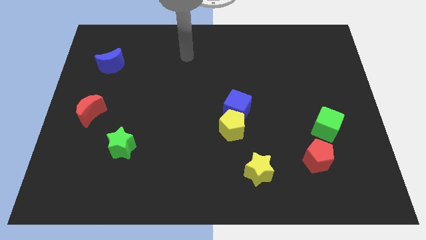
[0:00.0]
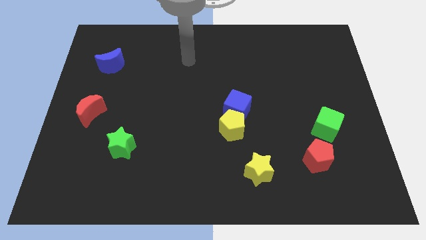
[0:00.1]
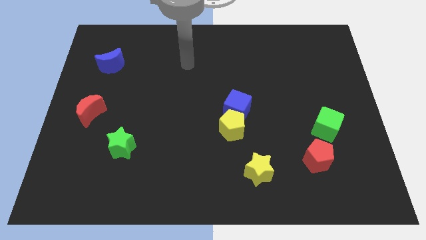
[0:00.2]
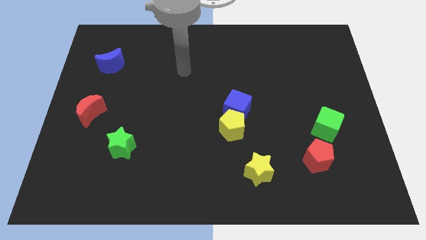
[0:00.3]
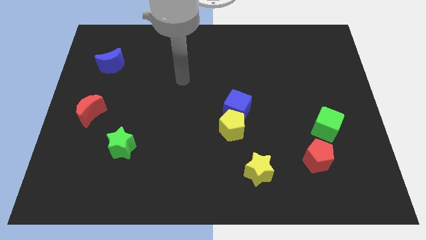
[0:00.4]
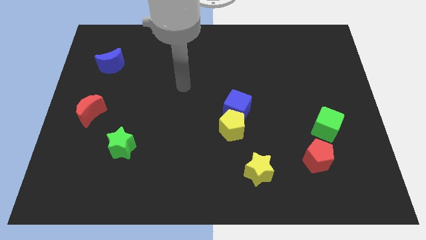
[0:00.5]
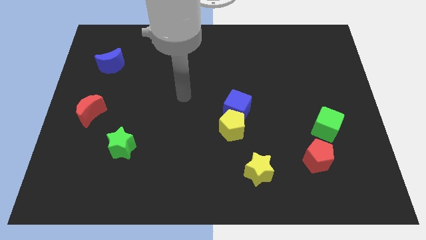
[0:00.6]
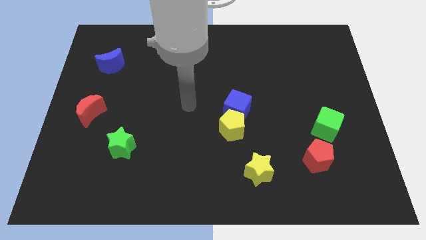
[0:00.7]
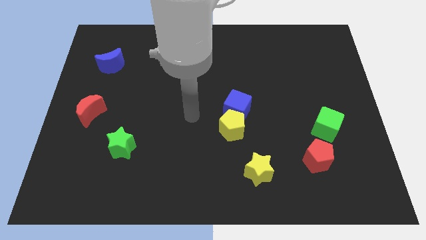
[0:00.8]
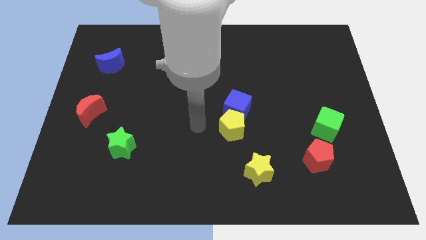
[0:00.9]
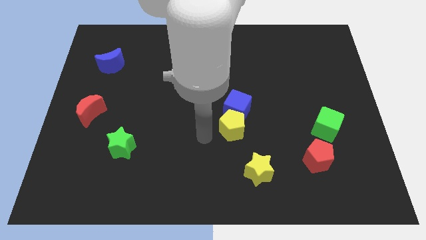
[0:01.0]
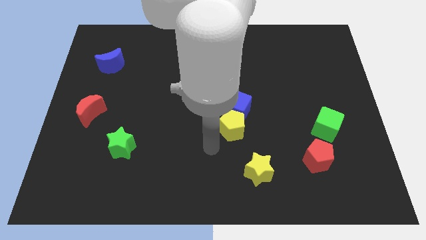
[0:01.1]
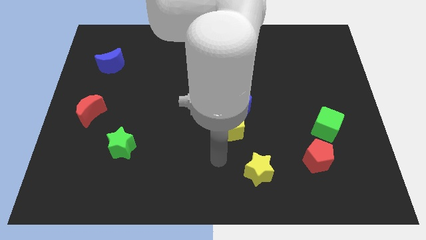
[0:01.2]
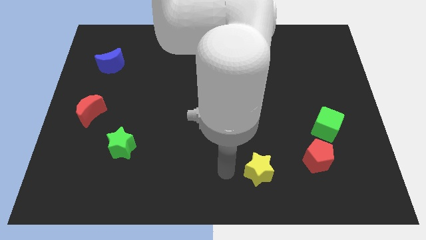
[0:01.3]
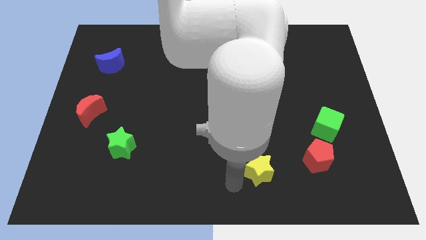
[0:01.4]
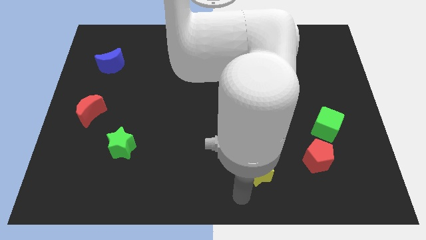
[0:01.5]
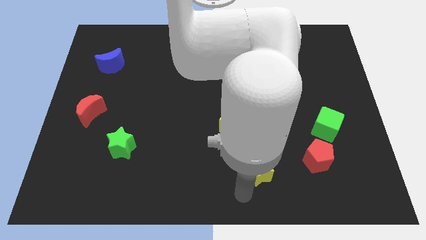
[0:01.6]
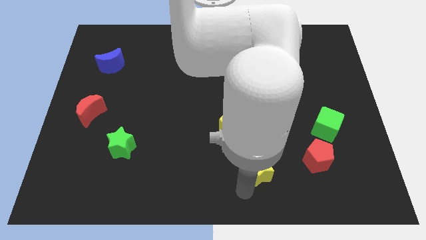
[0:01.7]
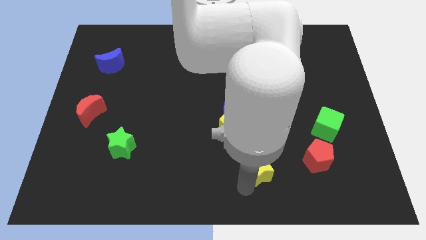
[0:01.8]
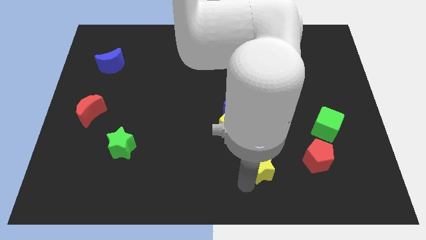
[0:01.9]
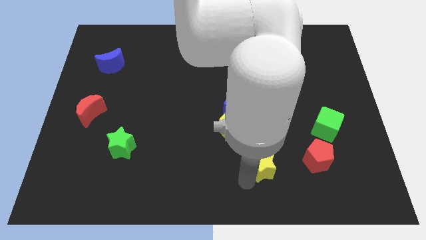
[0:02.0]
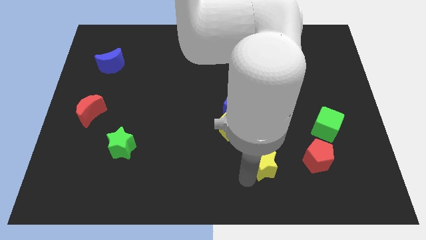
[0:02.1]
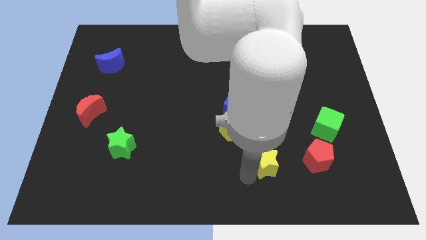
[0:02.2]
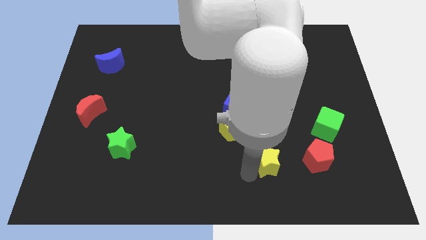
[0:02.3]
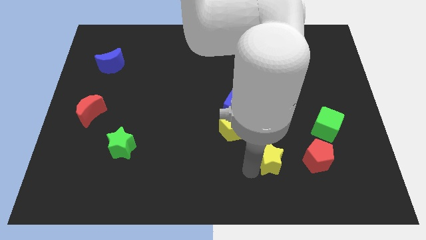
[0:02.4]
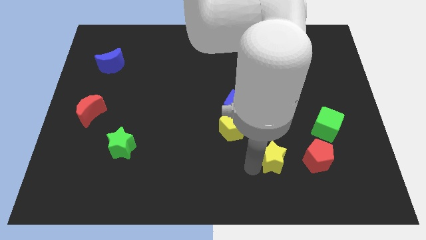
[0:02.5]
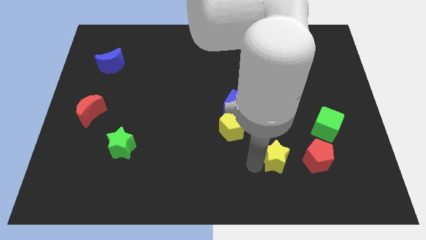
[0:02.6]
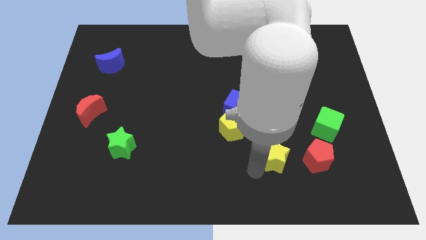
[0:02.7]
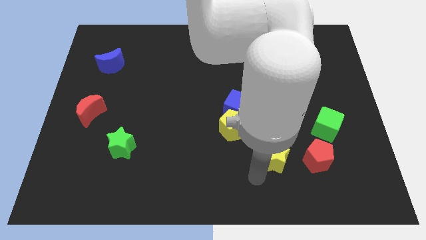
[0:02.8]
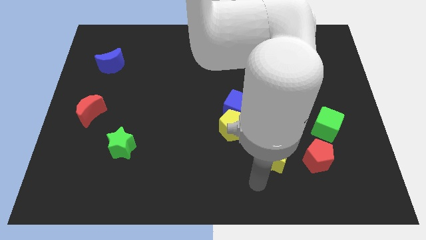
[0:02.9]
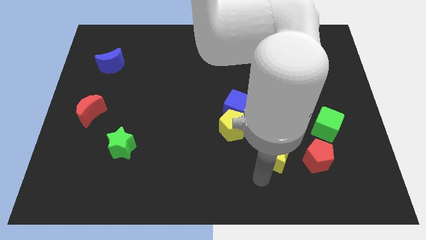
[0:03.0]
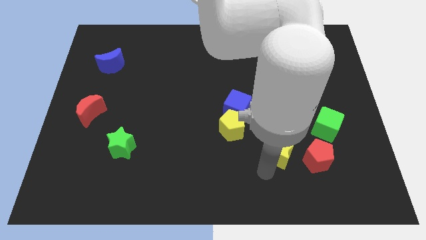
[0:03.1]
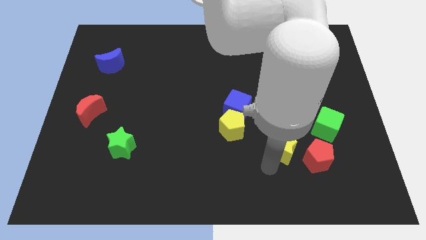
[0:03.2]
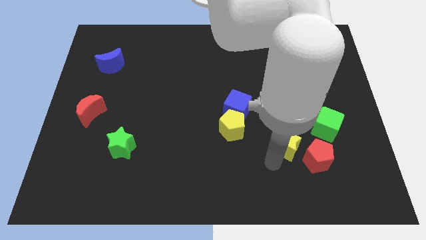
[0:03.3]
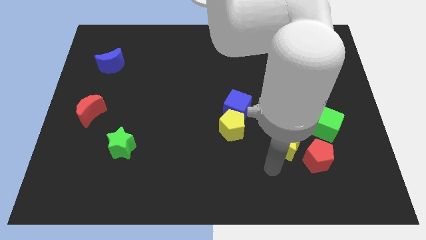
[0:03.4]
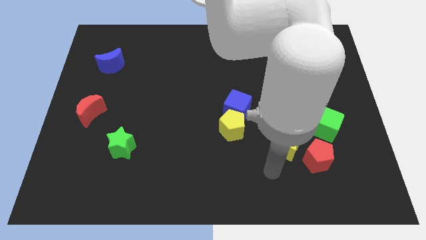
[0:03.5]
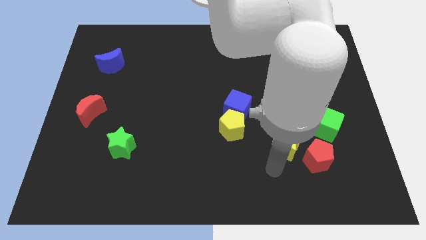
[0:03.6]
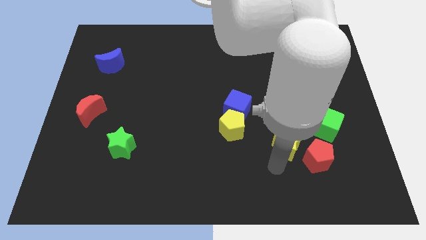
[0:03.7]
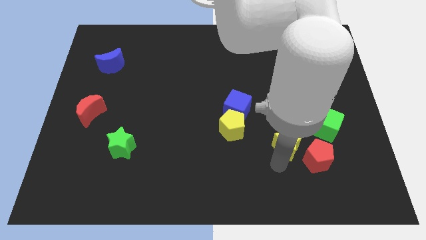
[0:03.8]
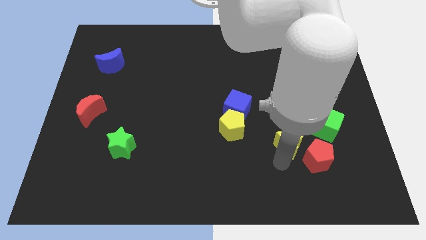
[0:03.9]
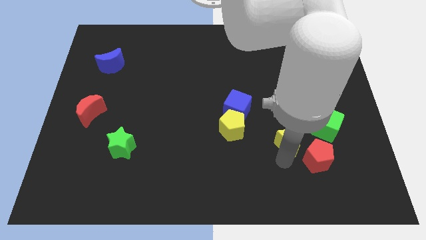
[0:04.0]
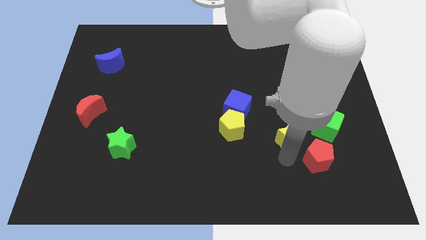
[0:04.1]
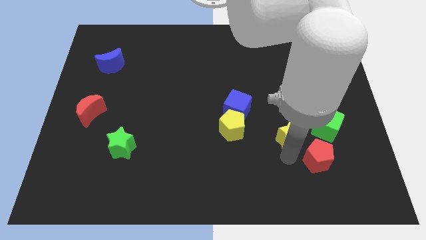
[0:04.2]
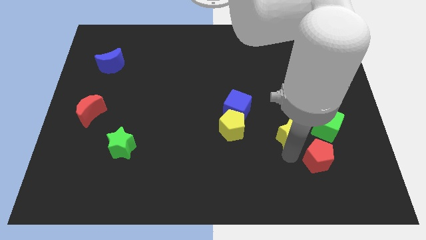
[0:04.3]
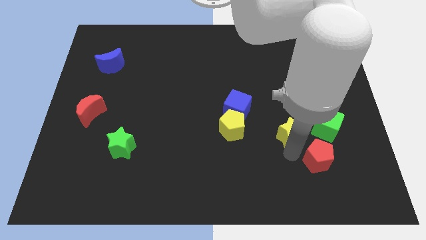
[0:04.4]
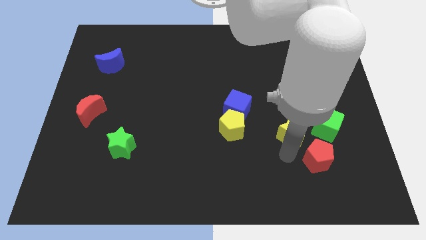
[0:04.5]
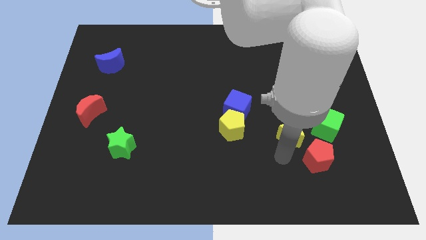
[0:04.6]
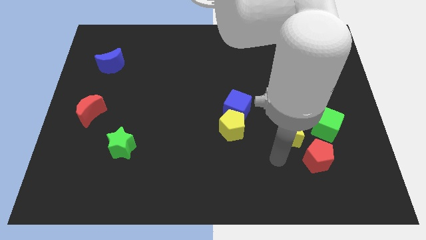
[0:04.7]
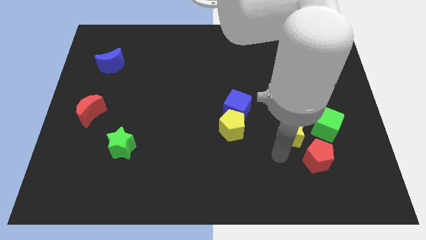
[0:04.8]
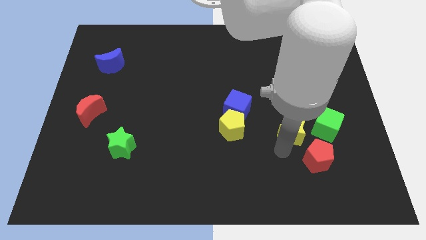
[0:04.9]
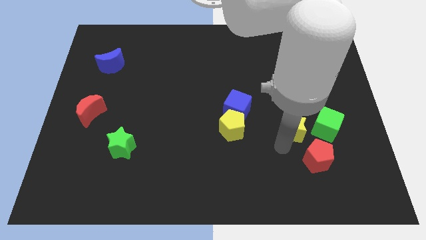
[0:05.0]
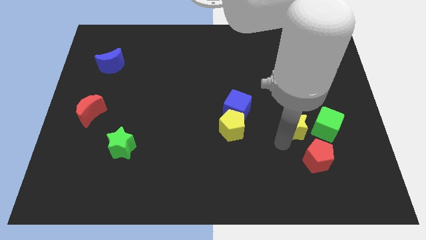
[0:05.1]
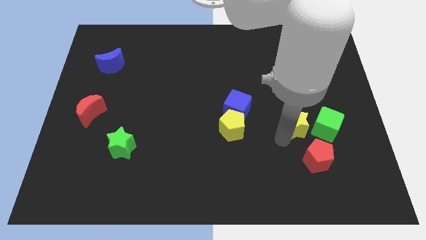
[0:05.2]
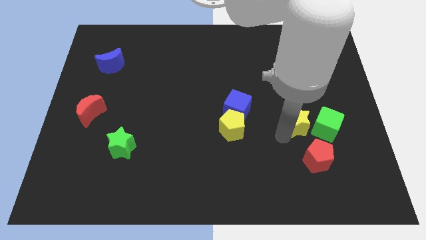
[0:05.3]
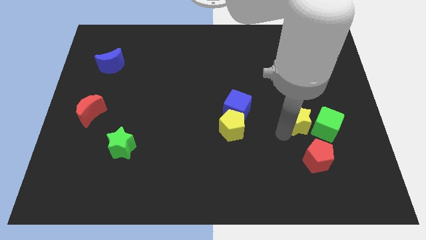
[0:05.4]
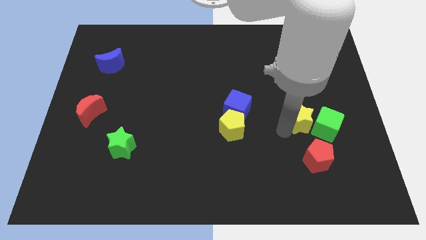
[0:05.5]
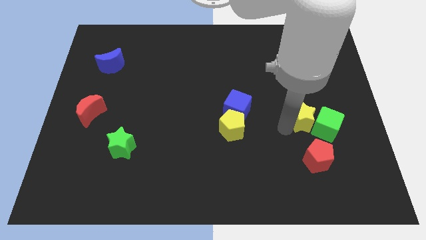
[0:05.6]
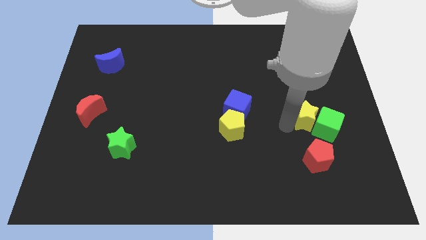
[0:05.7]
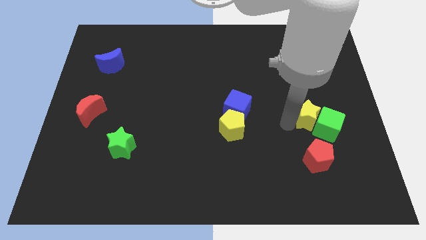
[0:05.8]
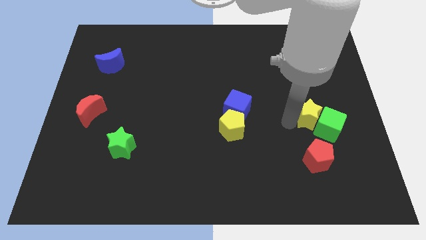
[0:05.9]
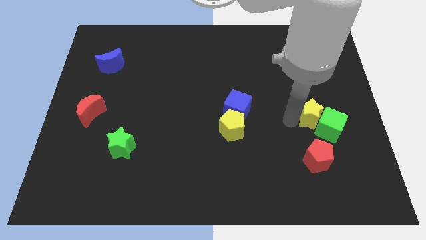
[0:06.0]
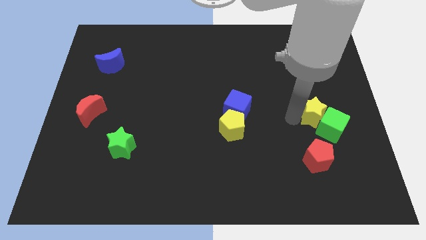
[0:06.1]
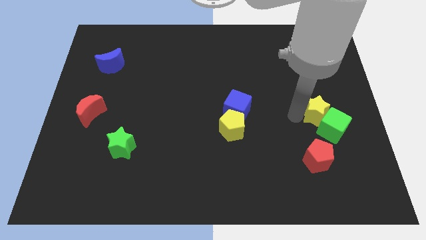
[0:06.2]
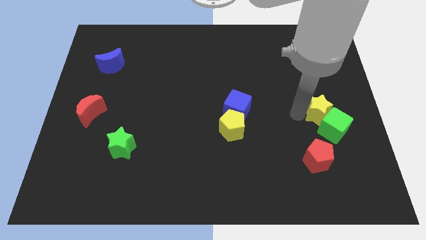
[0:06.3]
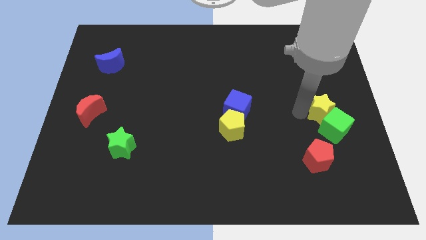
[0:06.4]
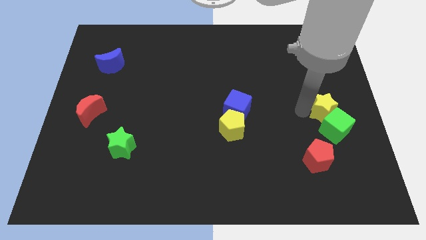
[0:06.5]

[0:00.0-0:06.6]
push the yellow star to the right side of the board

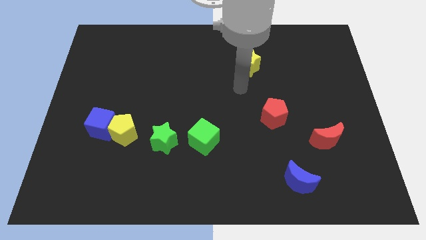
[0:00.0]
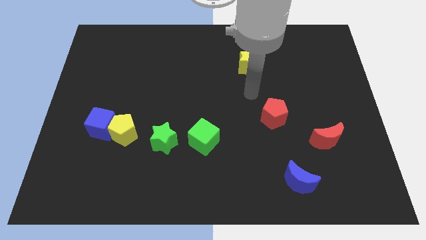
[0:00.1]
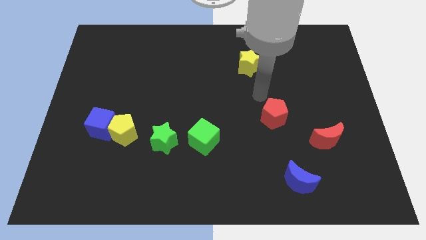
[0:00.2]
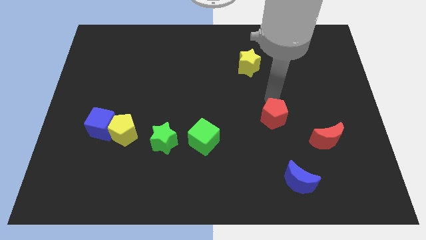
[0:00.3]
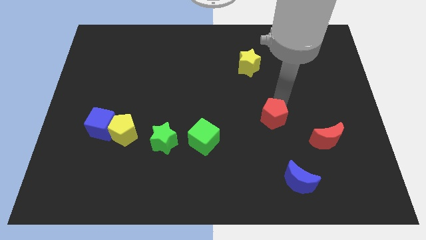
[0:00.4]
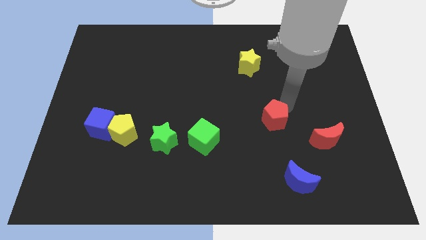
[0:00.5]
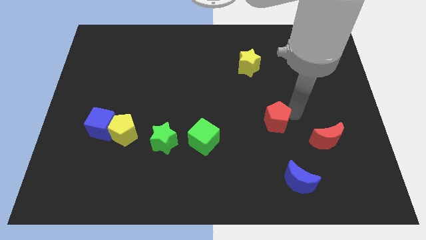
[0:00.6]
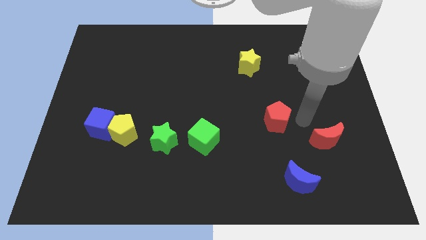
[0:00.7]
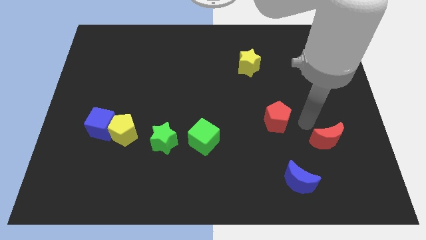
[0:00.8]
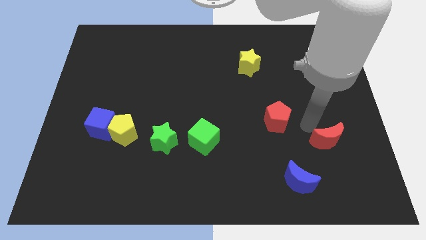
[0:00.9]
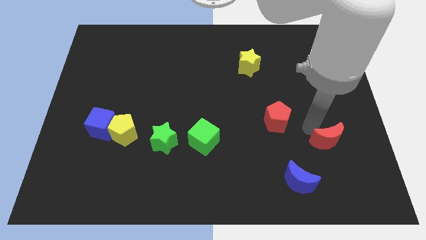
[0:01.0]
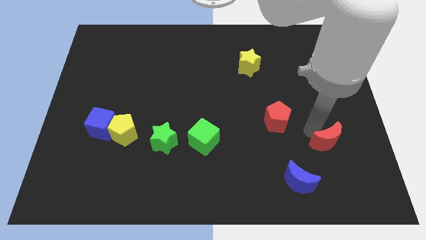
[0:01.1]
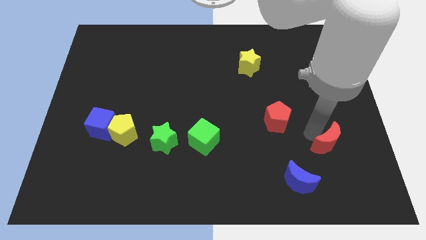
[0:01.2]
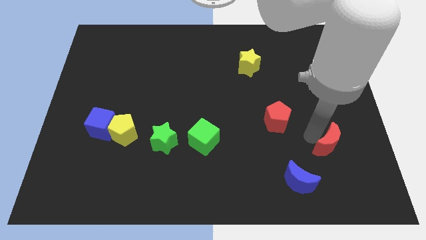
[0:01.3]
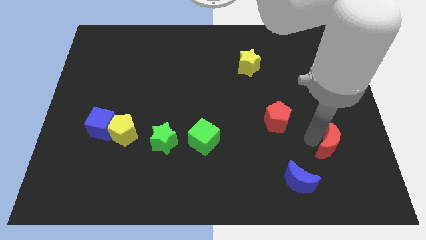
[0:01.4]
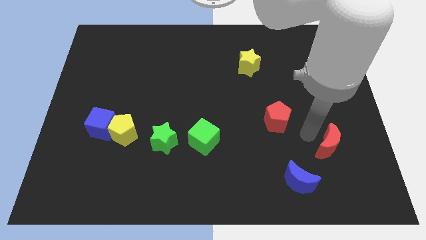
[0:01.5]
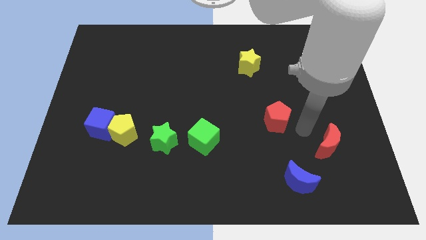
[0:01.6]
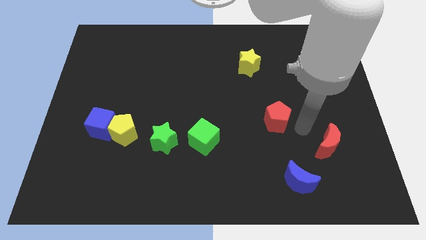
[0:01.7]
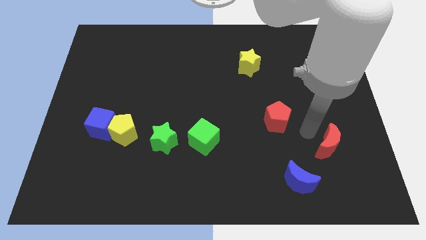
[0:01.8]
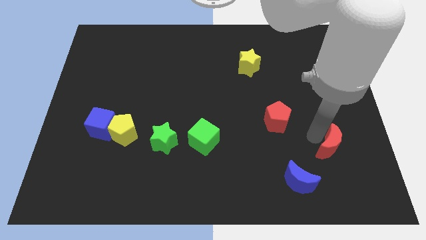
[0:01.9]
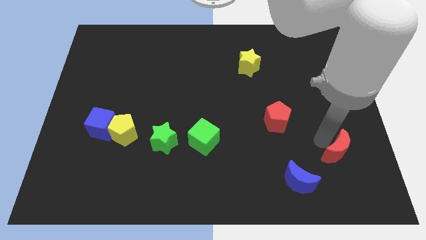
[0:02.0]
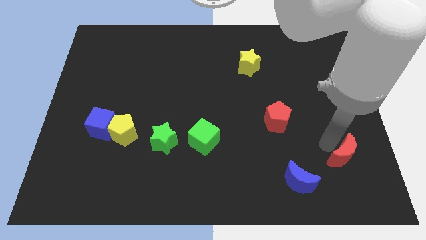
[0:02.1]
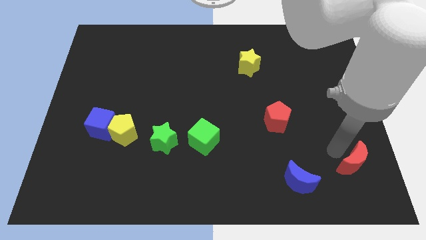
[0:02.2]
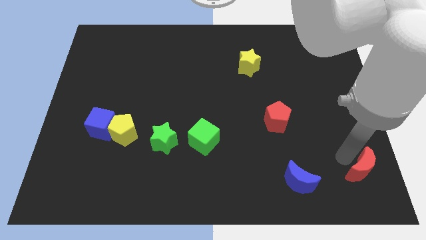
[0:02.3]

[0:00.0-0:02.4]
put the red moon to the lower right corner

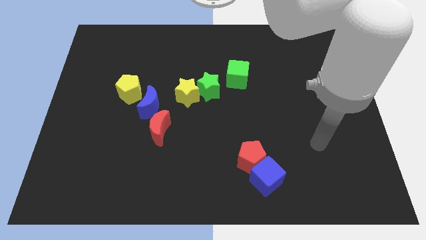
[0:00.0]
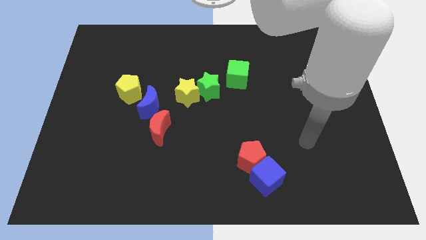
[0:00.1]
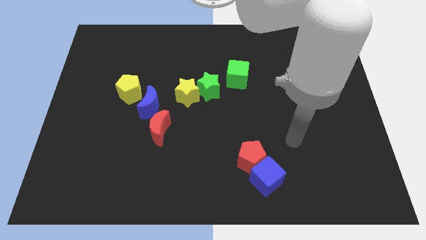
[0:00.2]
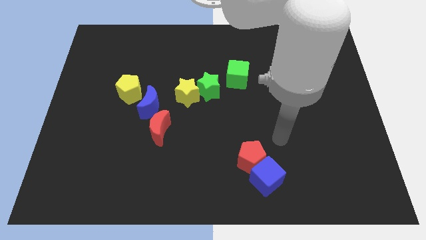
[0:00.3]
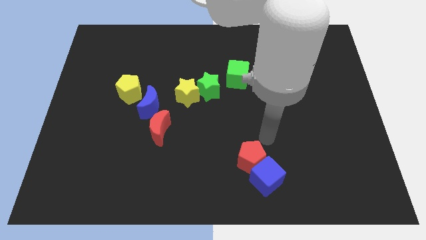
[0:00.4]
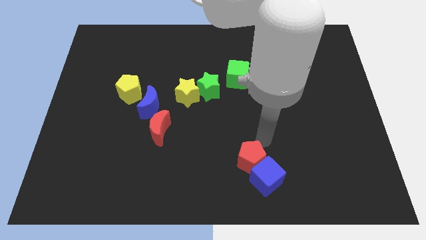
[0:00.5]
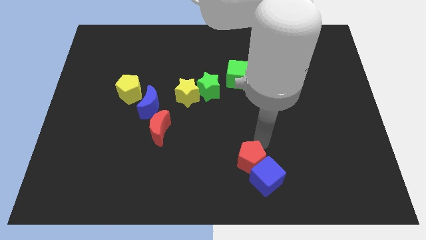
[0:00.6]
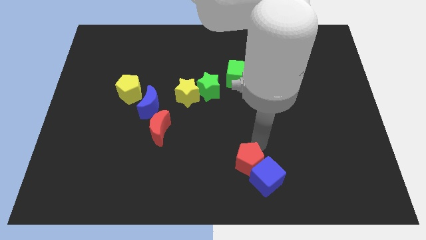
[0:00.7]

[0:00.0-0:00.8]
push the red pentagon to the bottom
